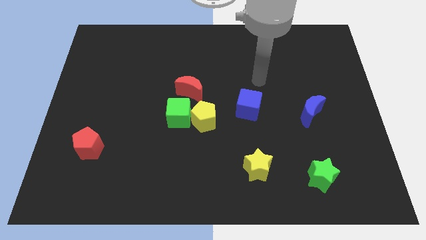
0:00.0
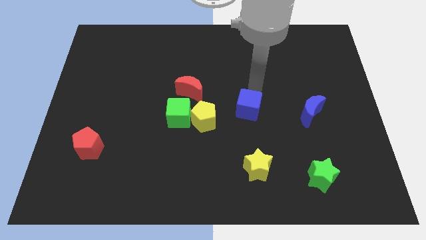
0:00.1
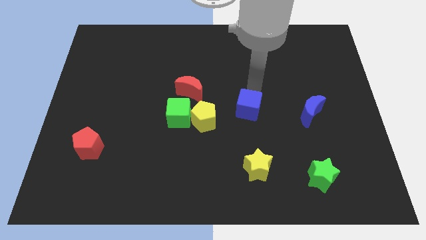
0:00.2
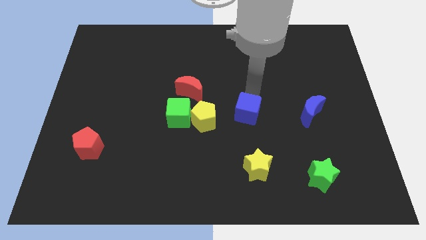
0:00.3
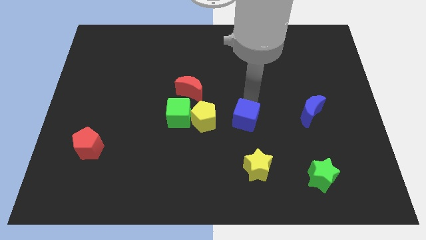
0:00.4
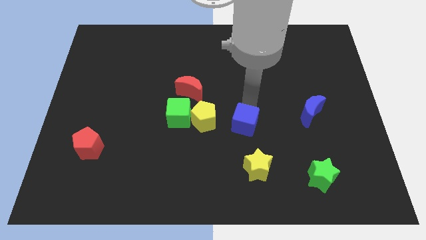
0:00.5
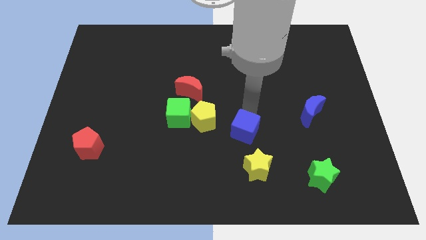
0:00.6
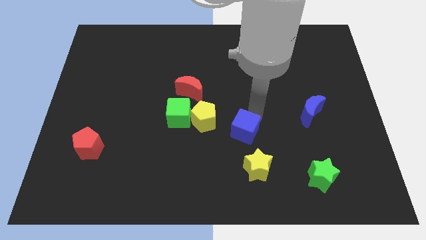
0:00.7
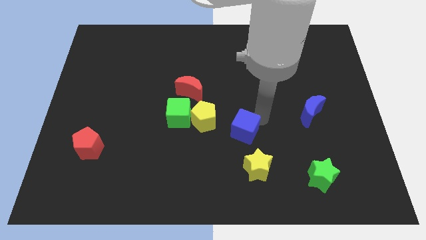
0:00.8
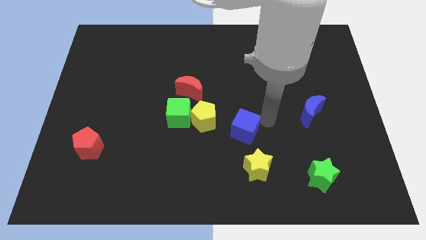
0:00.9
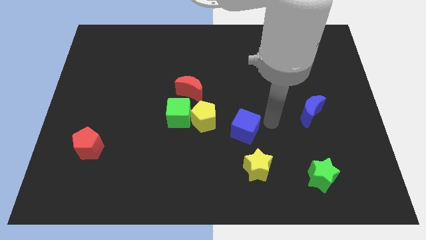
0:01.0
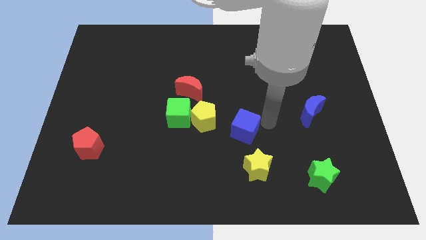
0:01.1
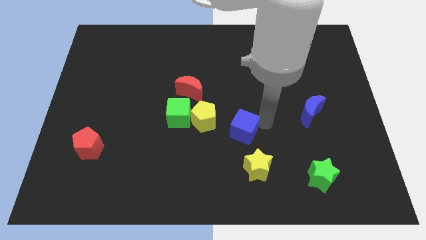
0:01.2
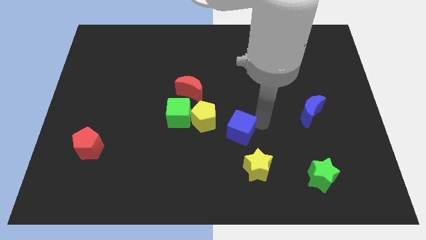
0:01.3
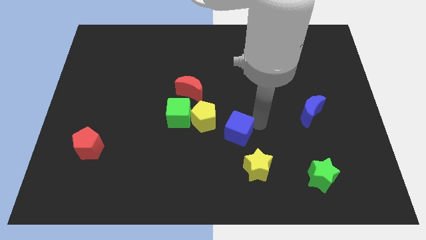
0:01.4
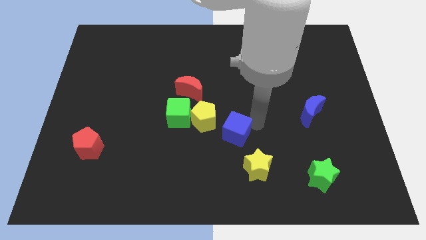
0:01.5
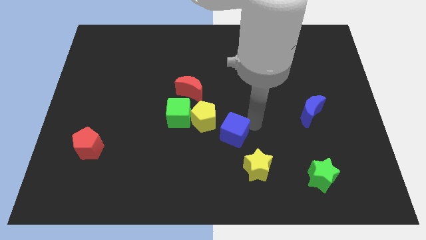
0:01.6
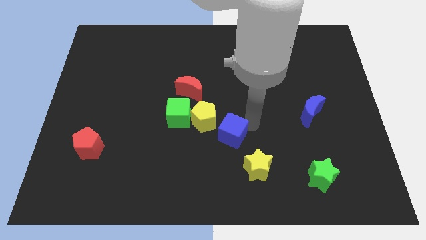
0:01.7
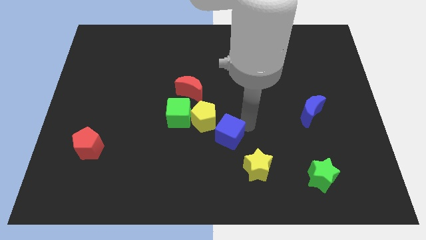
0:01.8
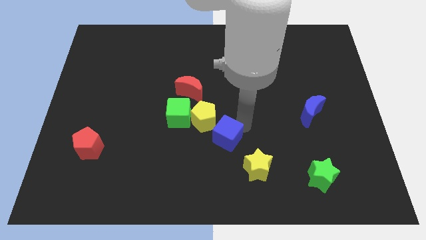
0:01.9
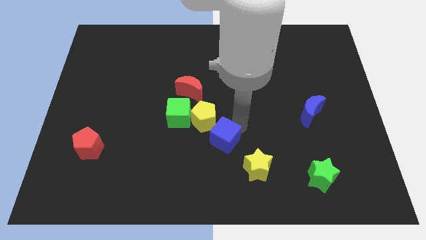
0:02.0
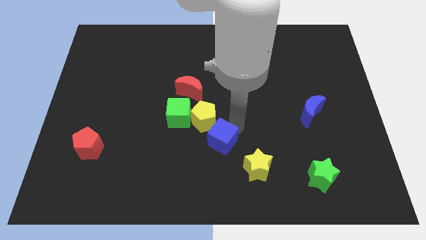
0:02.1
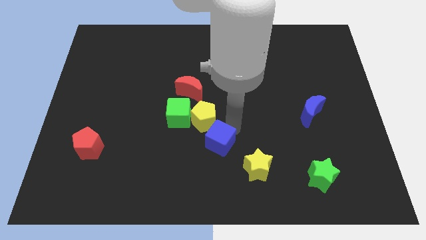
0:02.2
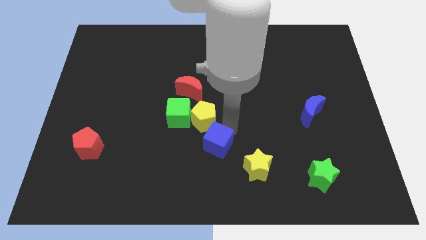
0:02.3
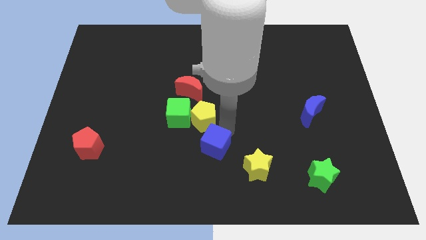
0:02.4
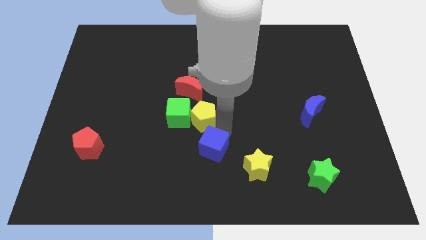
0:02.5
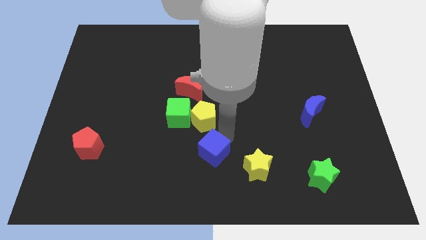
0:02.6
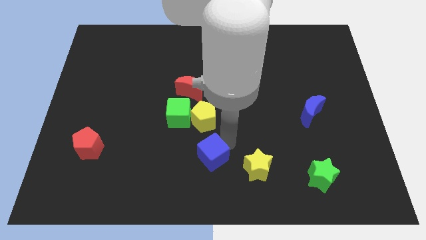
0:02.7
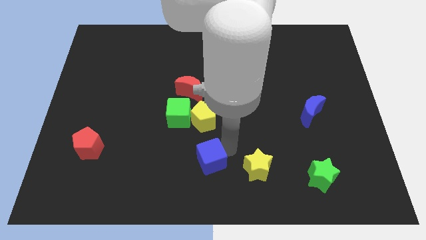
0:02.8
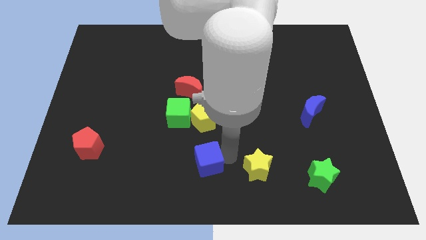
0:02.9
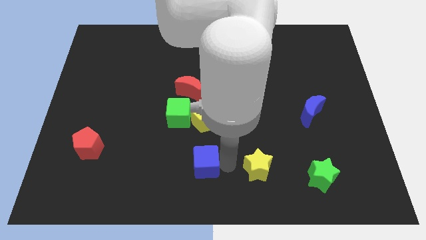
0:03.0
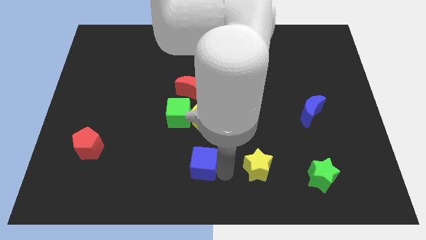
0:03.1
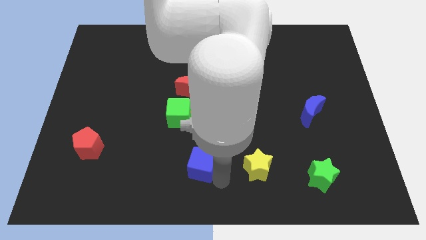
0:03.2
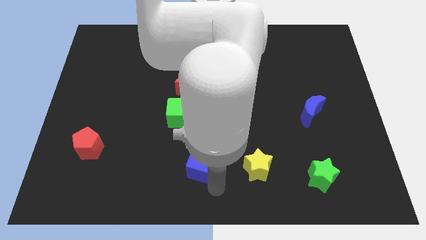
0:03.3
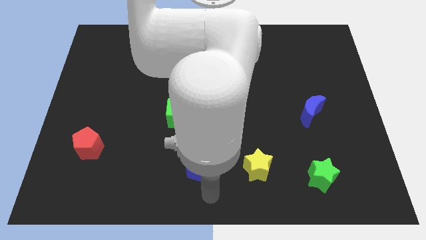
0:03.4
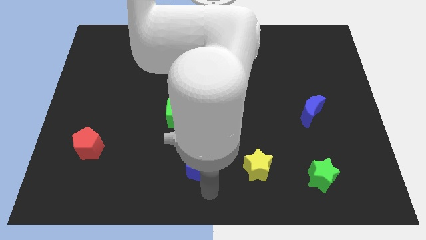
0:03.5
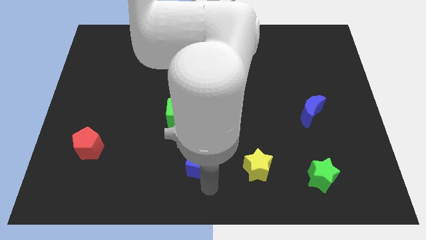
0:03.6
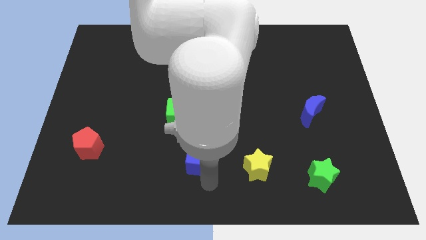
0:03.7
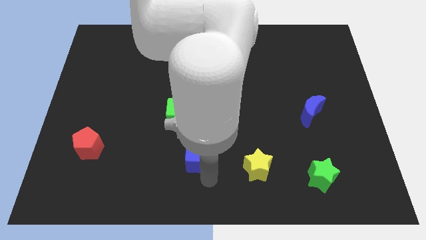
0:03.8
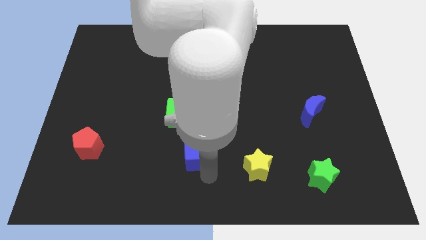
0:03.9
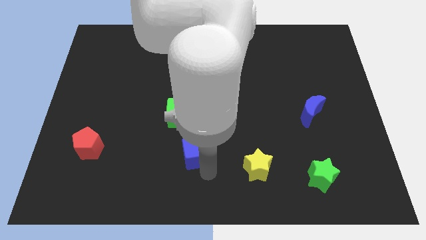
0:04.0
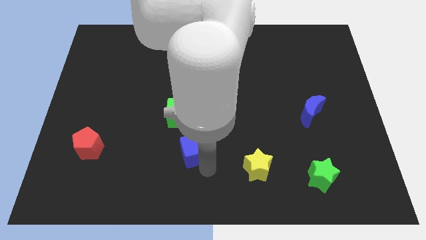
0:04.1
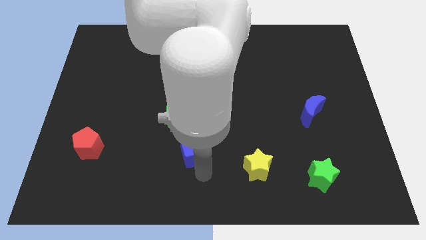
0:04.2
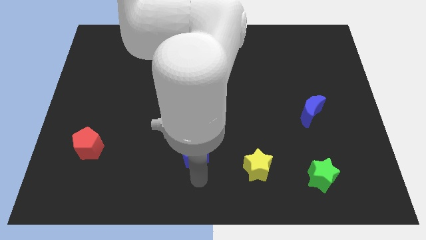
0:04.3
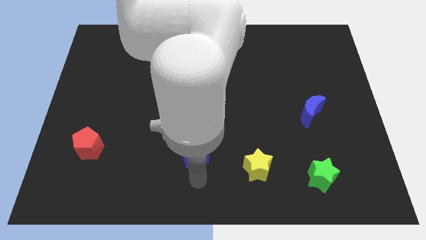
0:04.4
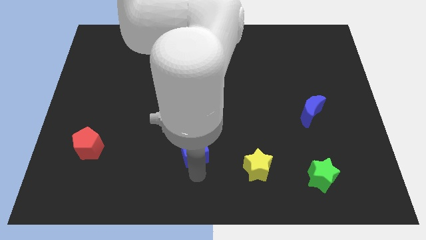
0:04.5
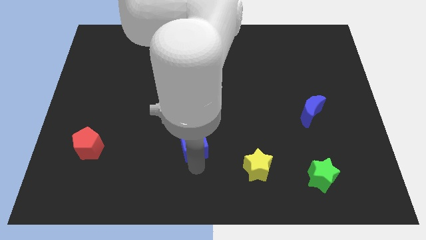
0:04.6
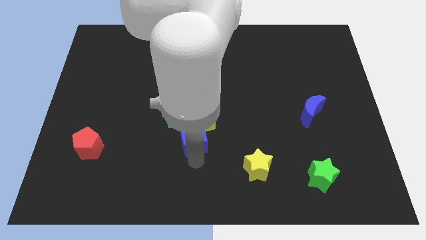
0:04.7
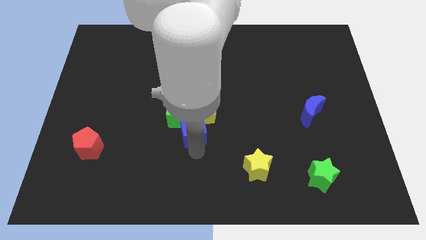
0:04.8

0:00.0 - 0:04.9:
move the blue cube towards the green cube

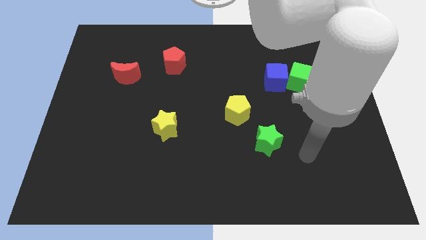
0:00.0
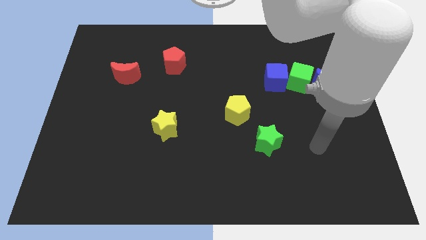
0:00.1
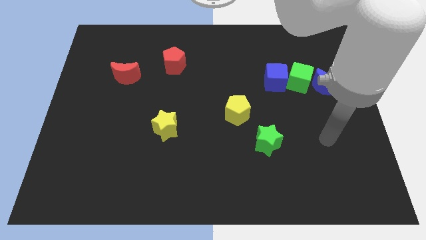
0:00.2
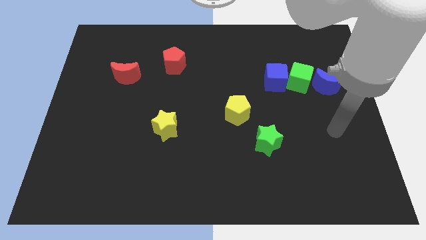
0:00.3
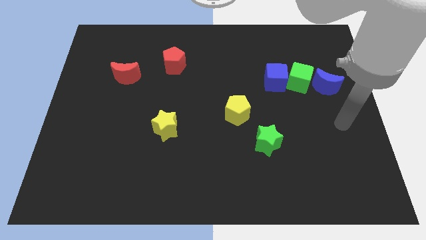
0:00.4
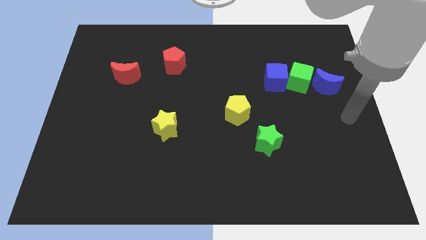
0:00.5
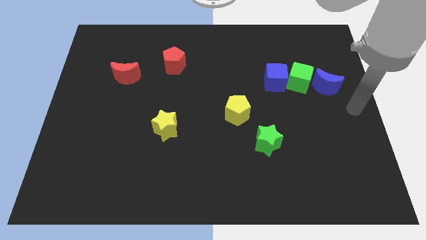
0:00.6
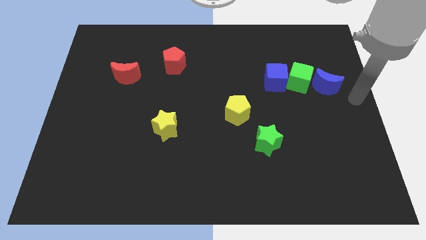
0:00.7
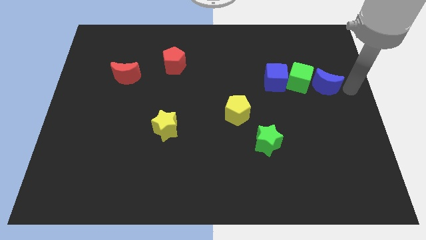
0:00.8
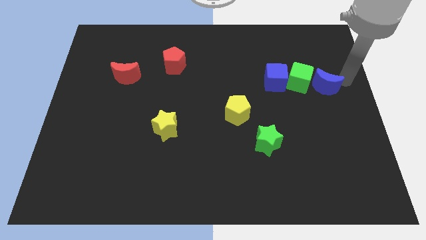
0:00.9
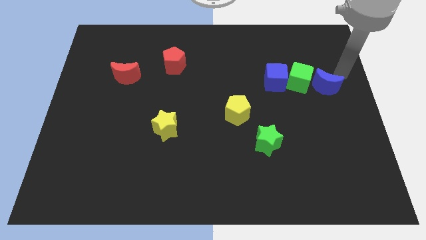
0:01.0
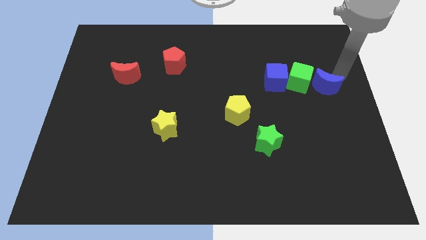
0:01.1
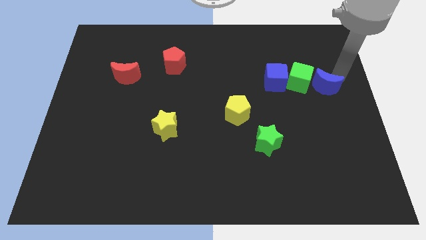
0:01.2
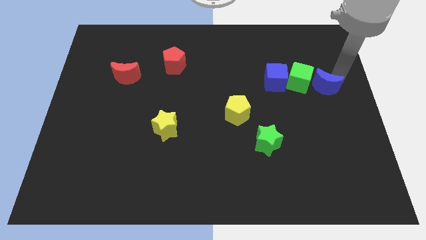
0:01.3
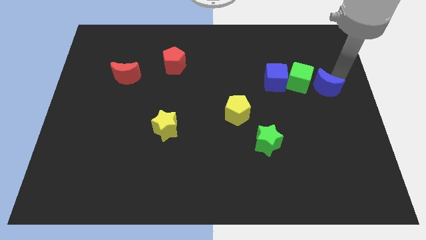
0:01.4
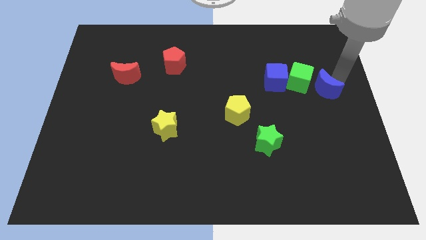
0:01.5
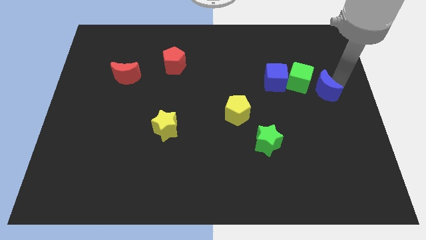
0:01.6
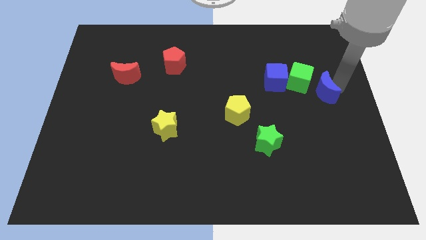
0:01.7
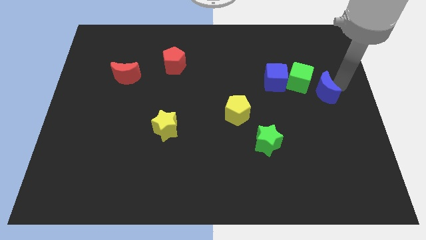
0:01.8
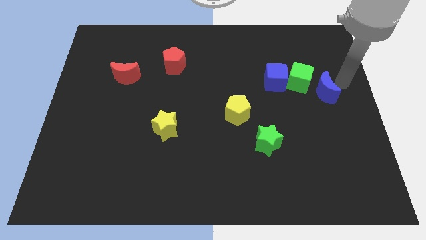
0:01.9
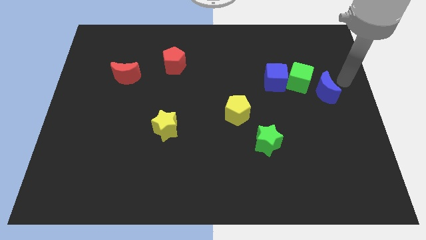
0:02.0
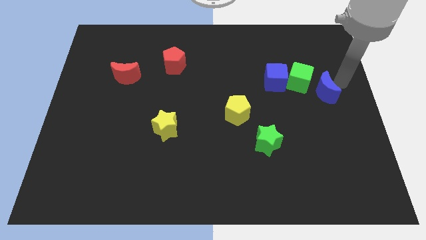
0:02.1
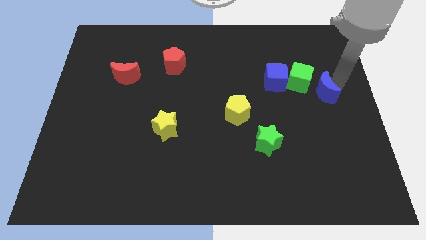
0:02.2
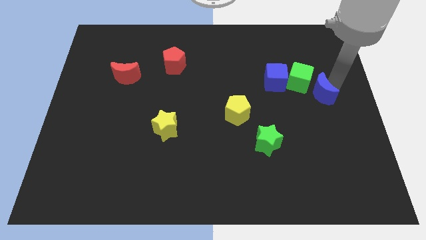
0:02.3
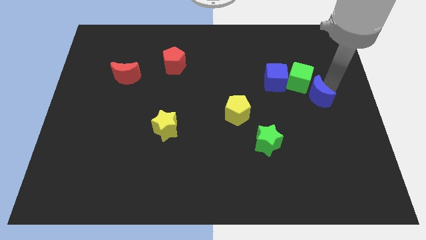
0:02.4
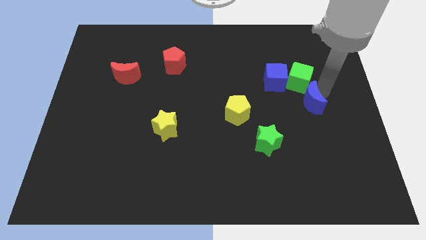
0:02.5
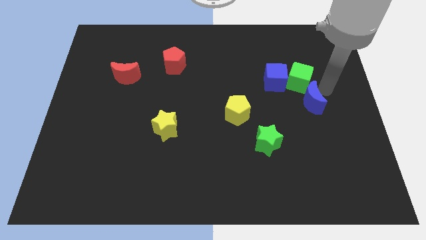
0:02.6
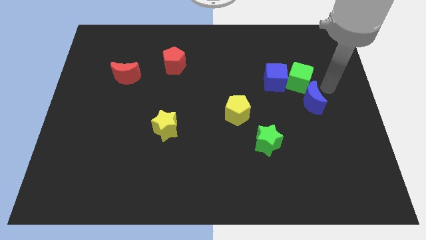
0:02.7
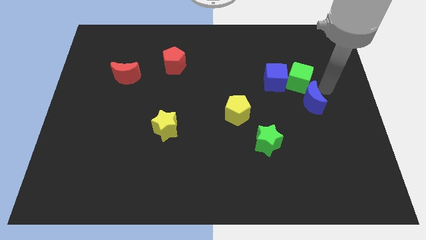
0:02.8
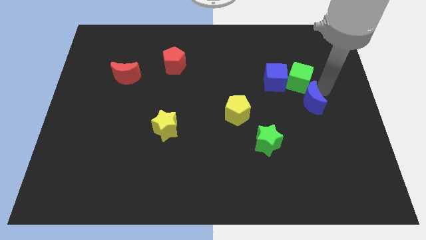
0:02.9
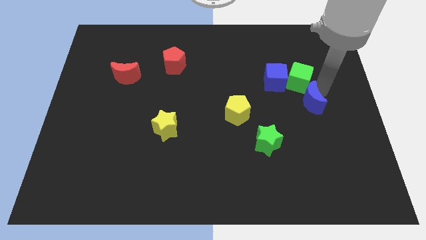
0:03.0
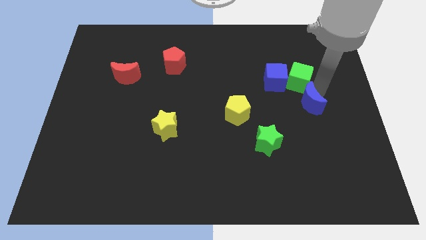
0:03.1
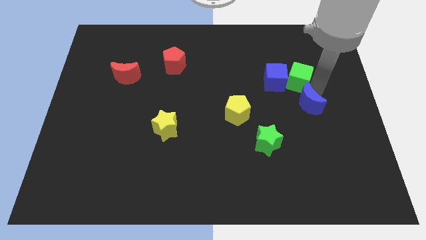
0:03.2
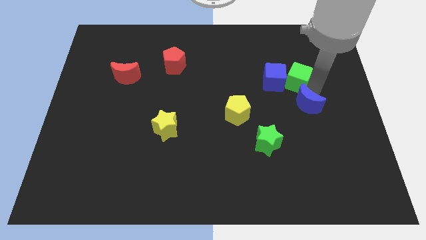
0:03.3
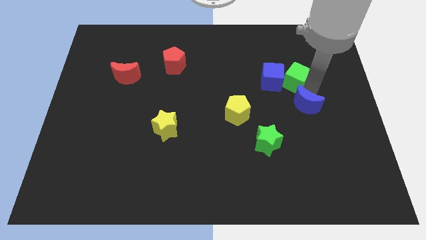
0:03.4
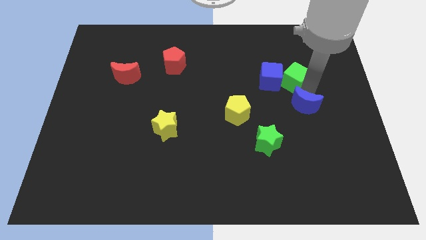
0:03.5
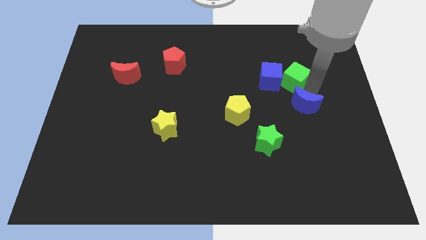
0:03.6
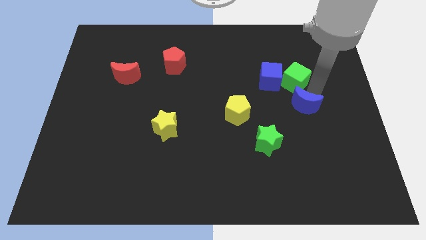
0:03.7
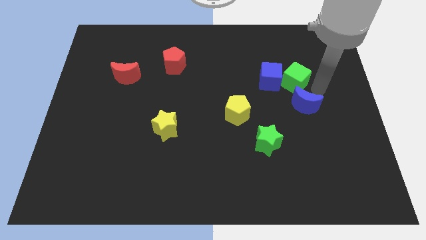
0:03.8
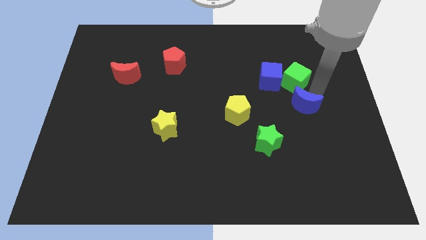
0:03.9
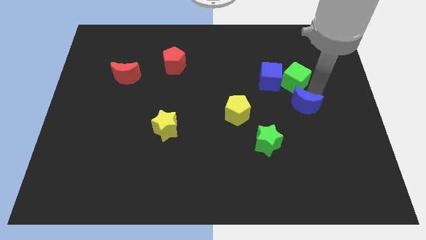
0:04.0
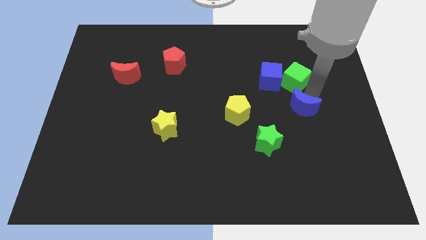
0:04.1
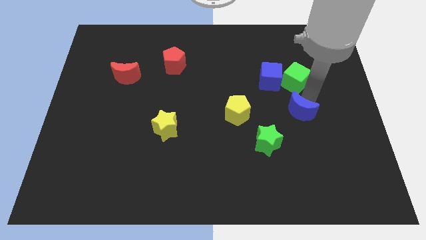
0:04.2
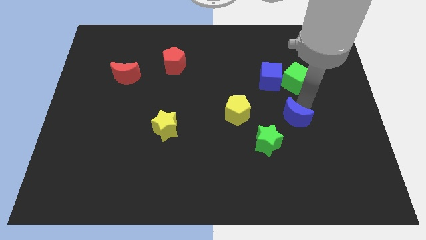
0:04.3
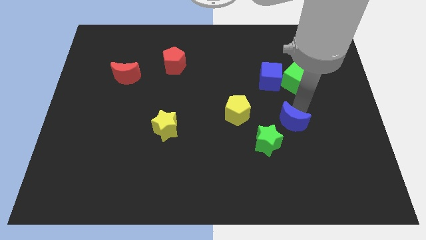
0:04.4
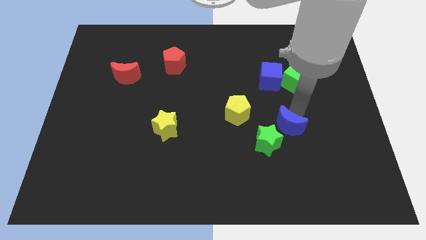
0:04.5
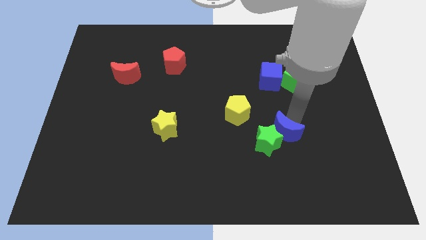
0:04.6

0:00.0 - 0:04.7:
slide the blue moon to the green star
